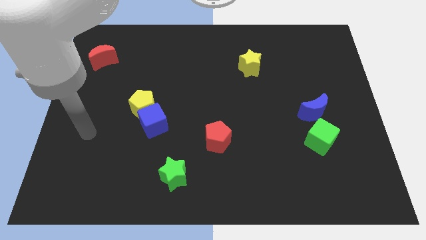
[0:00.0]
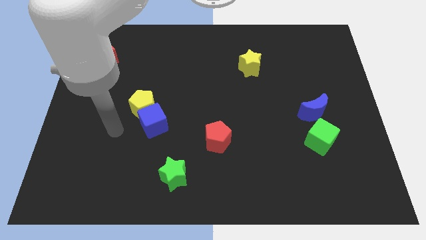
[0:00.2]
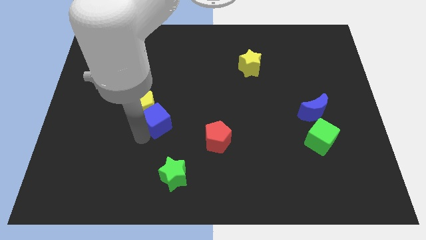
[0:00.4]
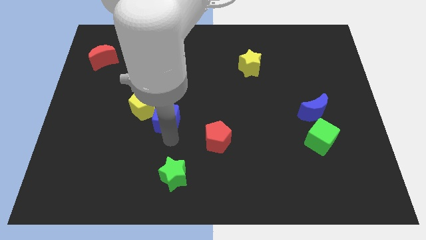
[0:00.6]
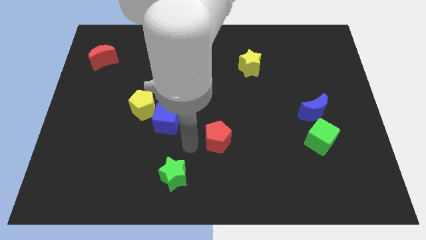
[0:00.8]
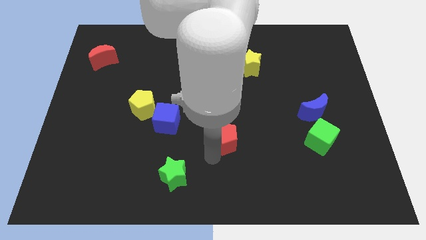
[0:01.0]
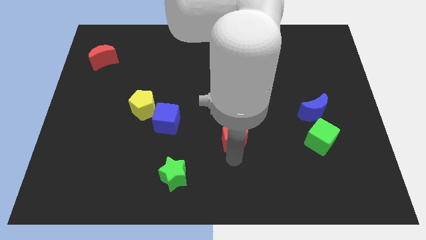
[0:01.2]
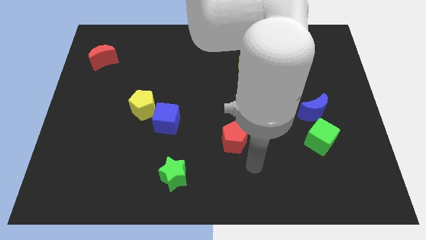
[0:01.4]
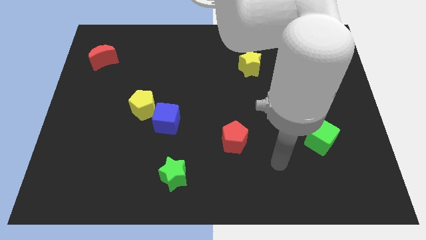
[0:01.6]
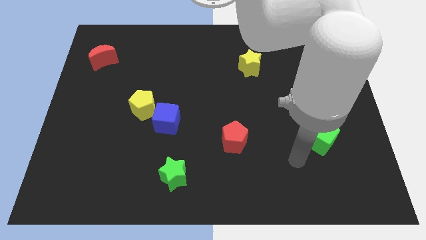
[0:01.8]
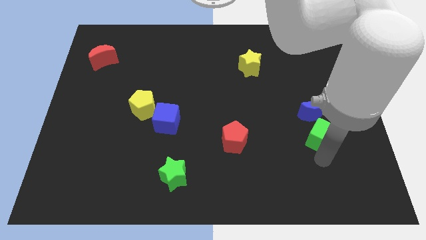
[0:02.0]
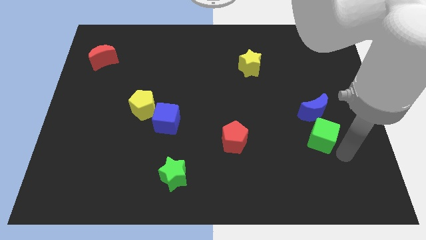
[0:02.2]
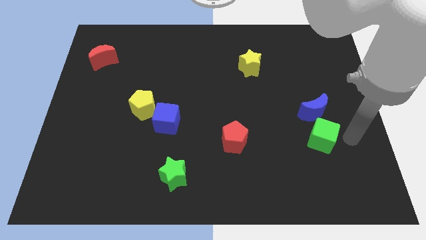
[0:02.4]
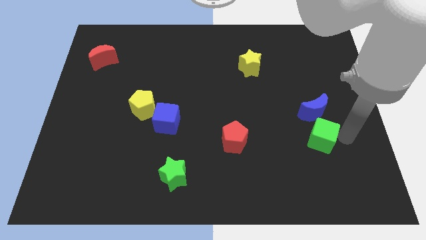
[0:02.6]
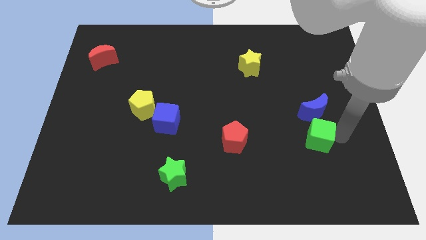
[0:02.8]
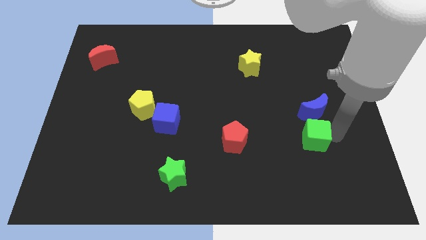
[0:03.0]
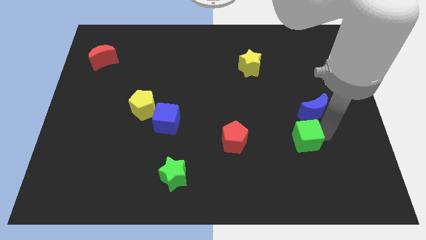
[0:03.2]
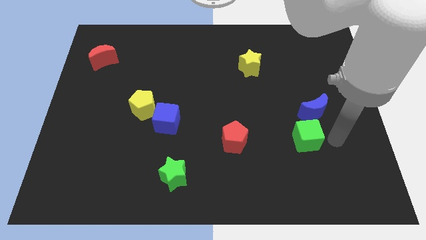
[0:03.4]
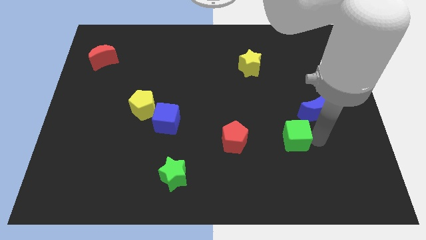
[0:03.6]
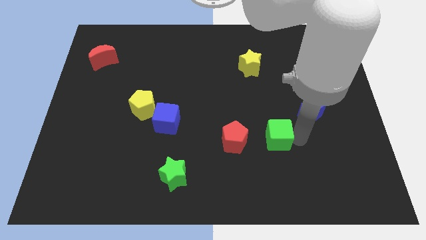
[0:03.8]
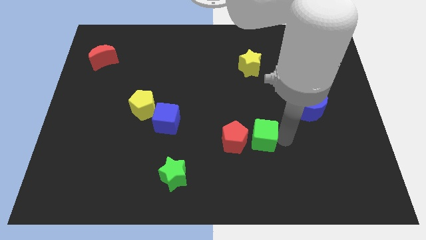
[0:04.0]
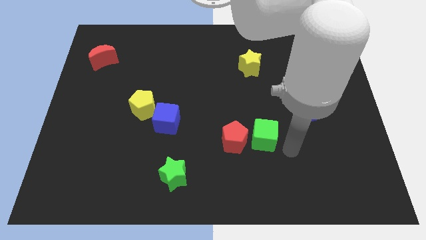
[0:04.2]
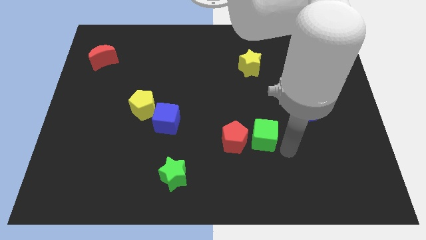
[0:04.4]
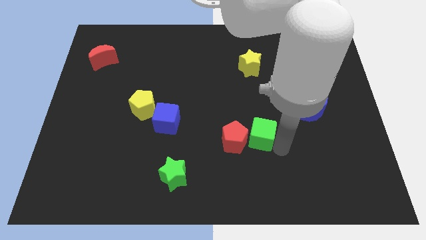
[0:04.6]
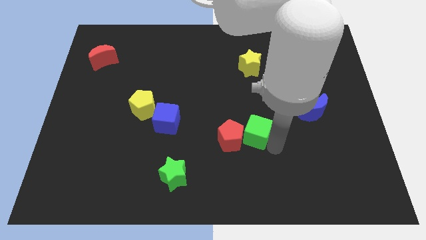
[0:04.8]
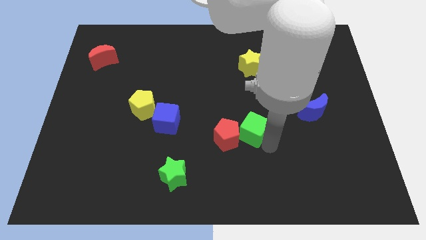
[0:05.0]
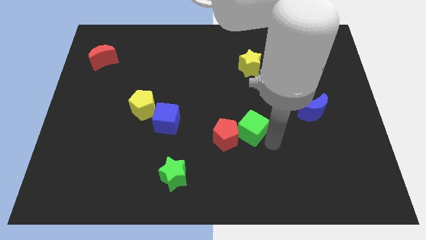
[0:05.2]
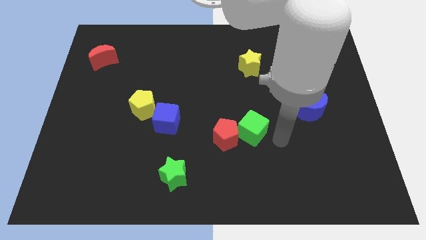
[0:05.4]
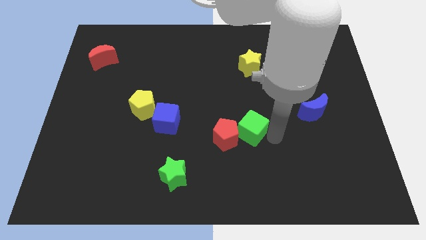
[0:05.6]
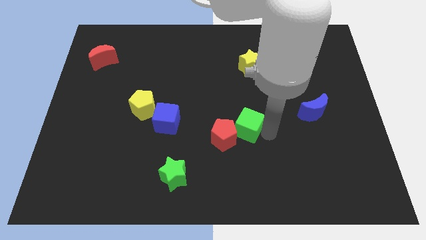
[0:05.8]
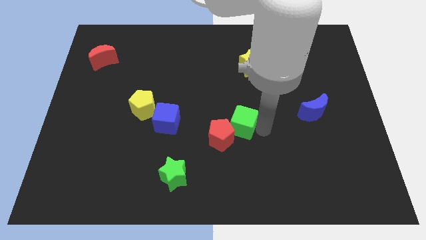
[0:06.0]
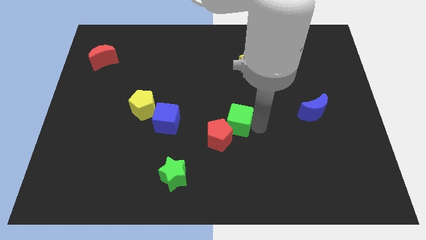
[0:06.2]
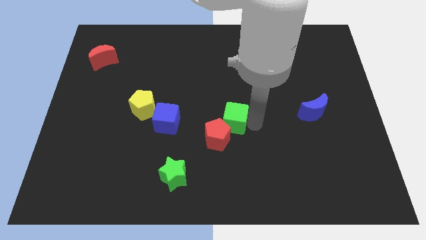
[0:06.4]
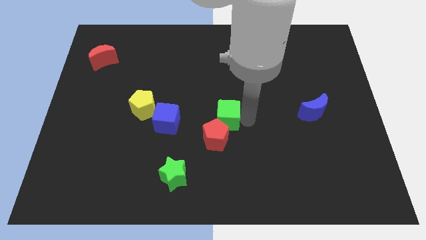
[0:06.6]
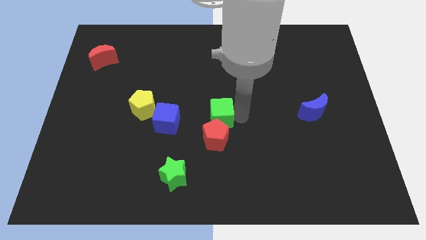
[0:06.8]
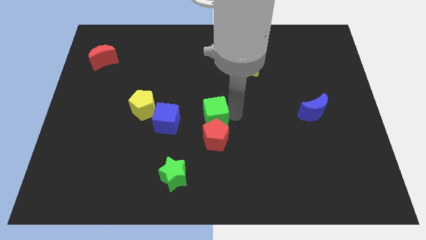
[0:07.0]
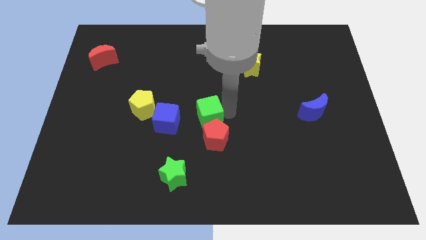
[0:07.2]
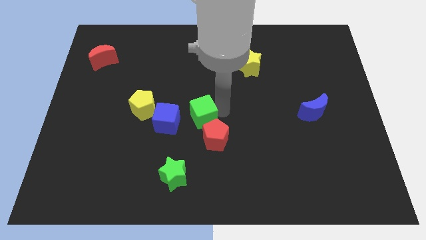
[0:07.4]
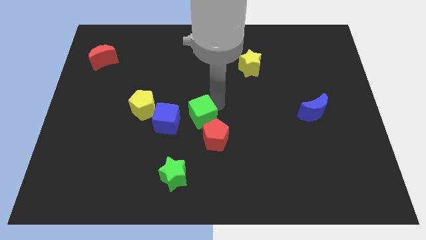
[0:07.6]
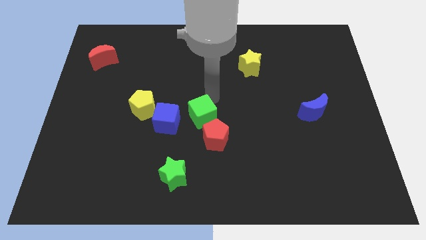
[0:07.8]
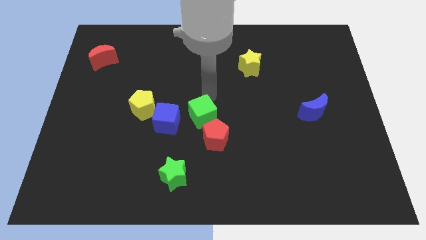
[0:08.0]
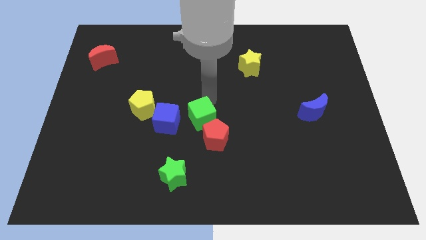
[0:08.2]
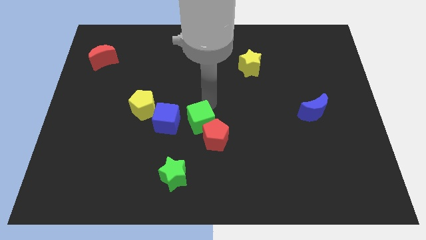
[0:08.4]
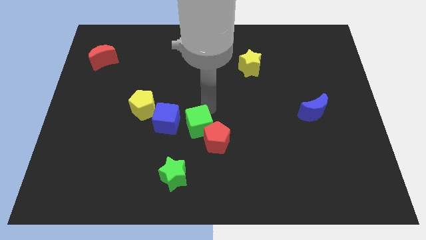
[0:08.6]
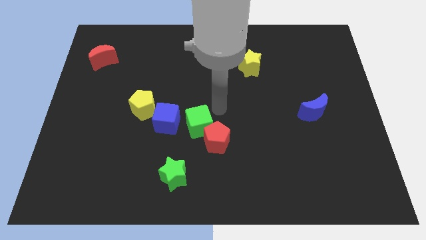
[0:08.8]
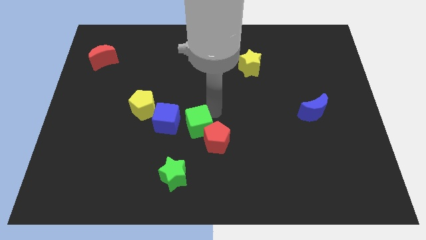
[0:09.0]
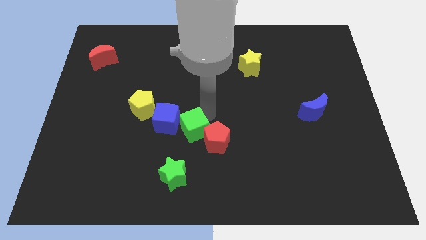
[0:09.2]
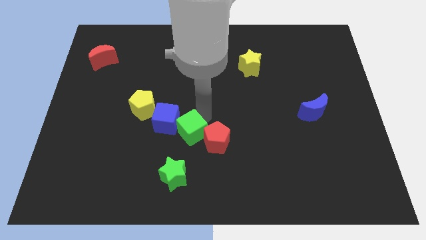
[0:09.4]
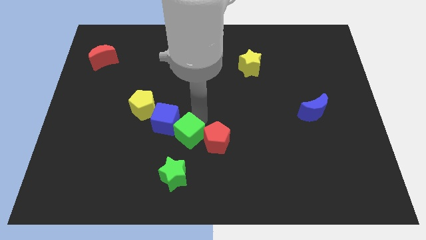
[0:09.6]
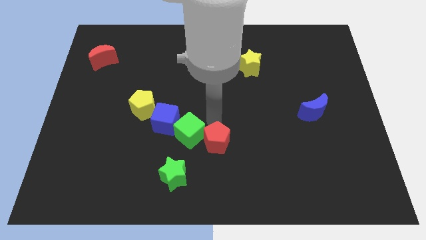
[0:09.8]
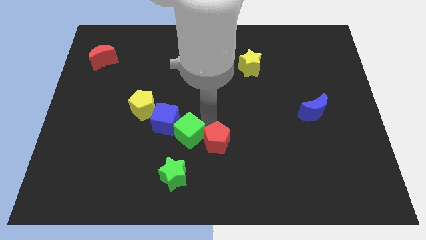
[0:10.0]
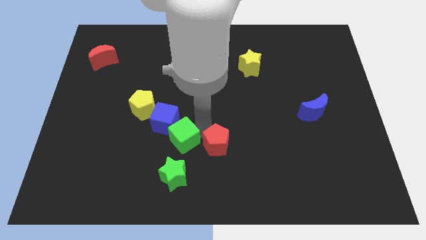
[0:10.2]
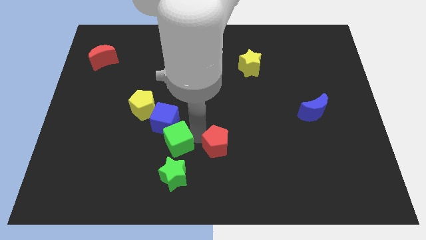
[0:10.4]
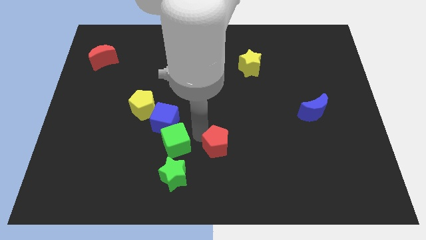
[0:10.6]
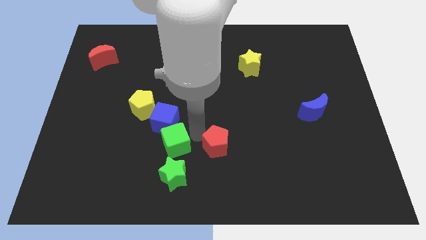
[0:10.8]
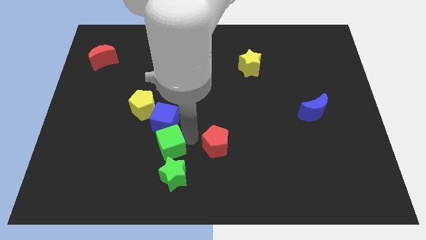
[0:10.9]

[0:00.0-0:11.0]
put the green cube to the top left side of the green star

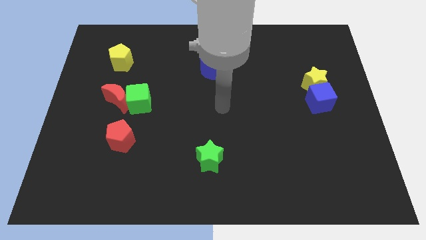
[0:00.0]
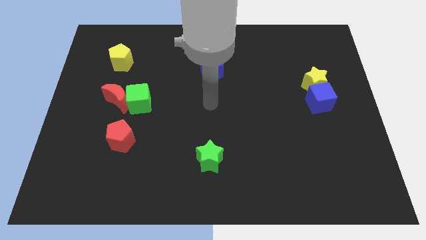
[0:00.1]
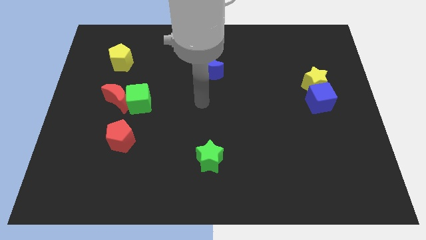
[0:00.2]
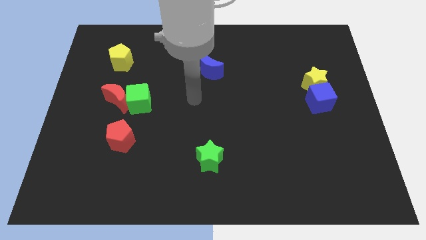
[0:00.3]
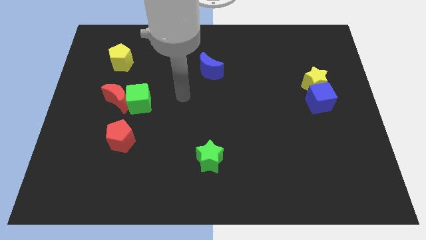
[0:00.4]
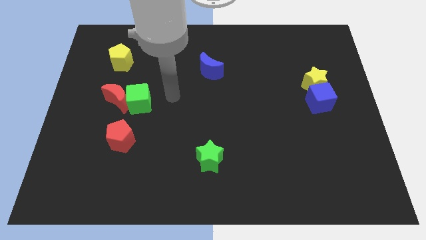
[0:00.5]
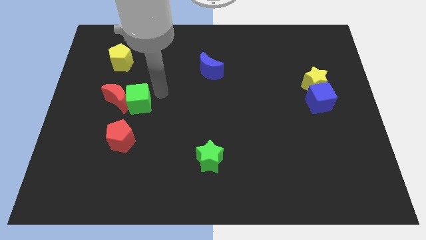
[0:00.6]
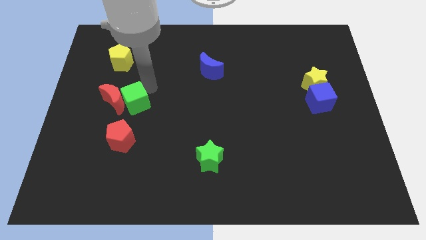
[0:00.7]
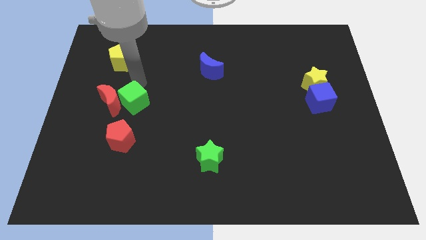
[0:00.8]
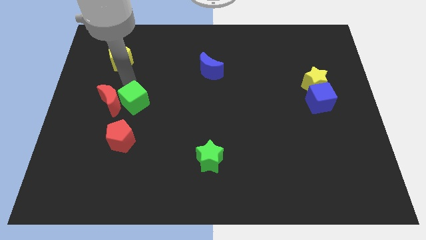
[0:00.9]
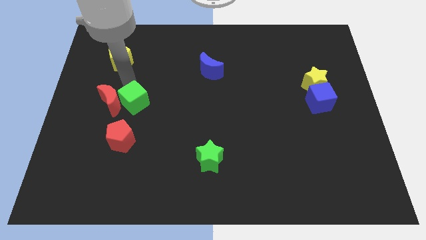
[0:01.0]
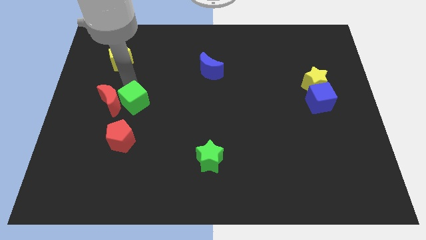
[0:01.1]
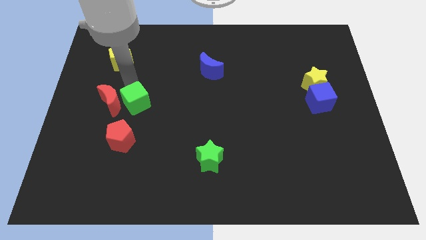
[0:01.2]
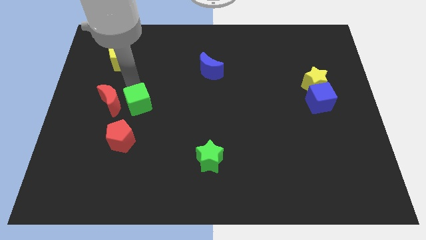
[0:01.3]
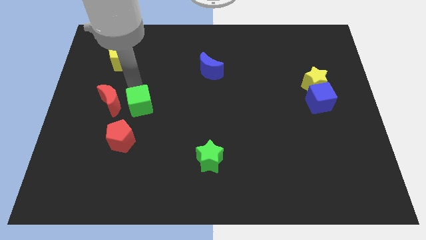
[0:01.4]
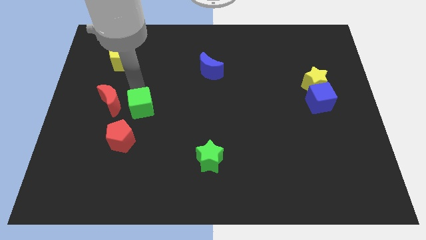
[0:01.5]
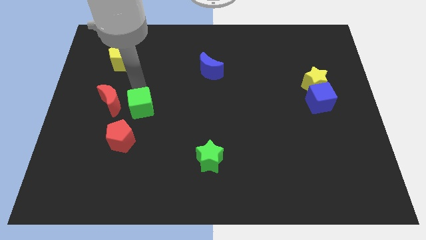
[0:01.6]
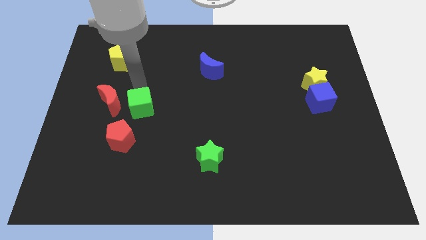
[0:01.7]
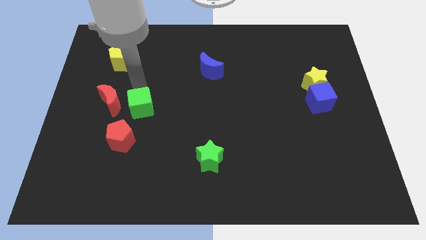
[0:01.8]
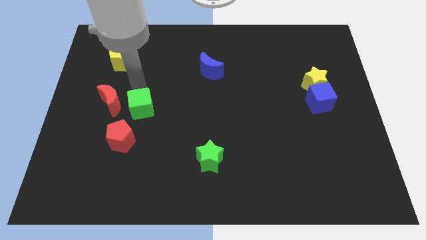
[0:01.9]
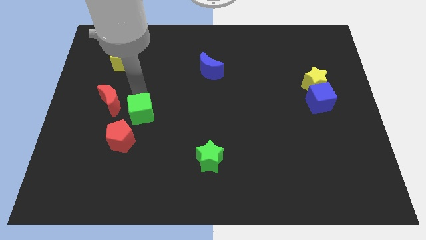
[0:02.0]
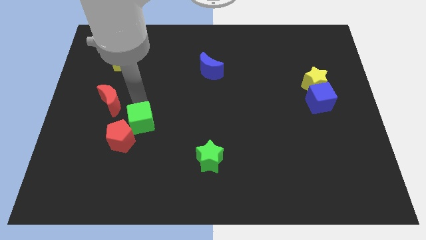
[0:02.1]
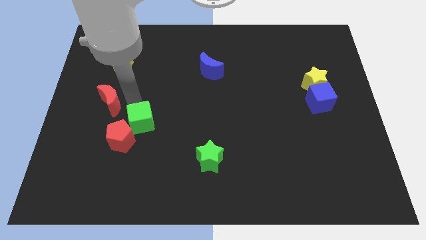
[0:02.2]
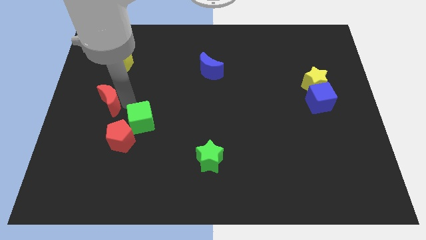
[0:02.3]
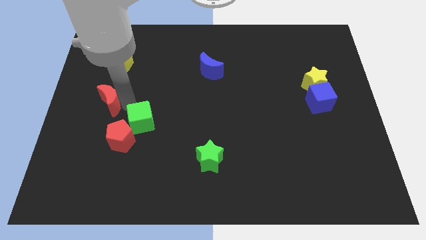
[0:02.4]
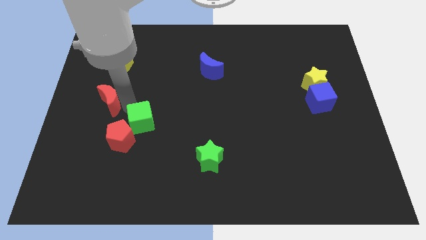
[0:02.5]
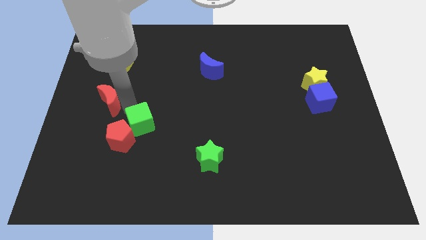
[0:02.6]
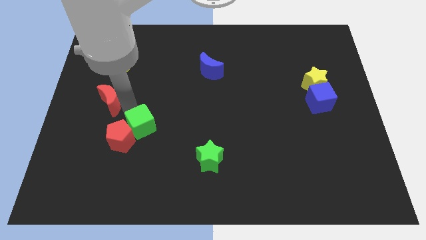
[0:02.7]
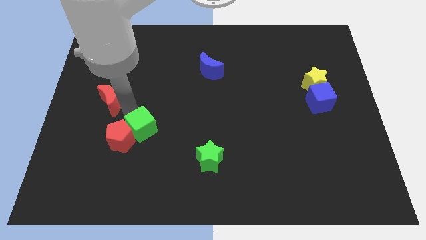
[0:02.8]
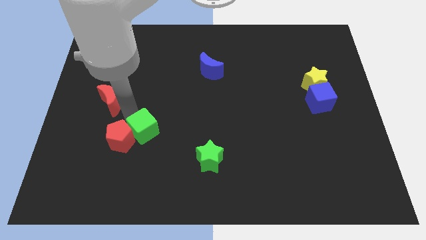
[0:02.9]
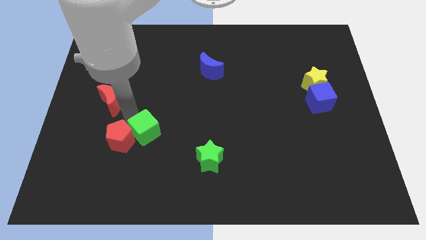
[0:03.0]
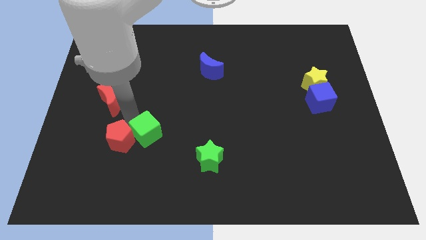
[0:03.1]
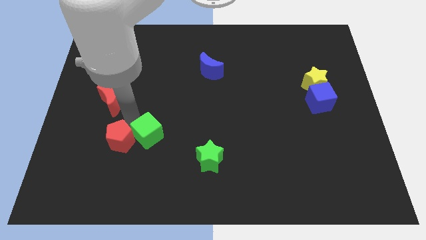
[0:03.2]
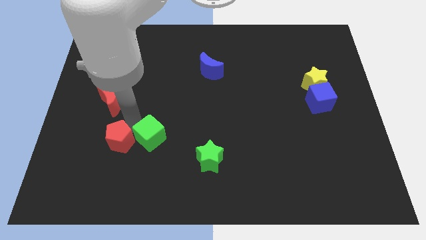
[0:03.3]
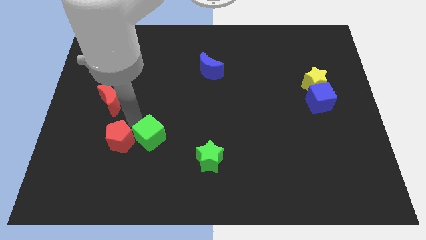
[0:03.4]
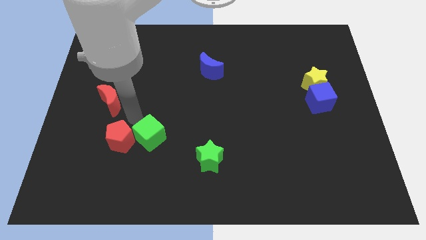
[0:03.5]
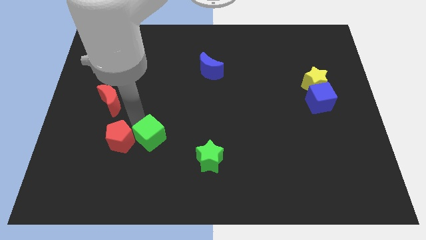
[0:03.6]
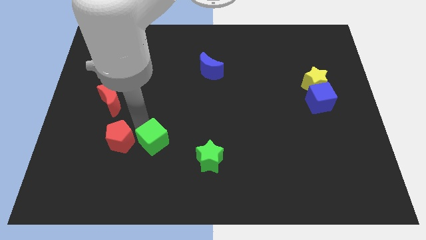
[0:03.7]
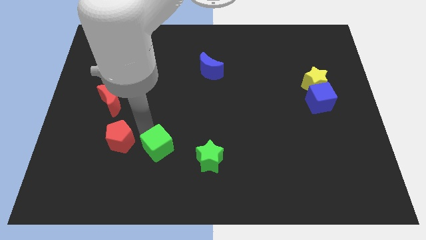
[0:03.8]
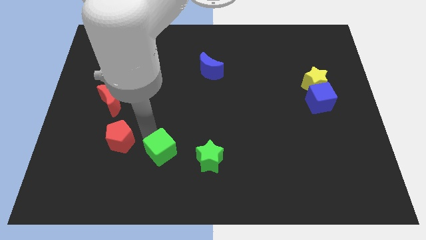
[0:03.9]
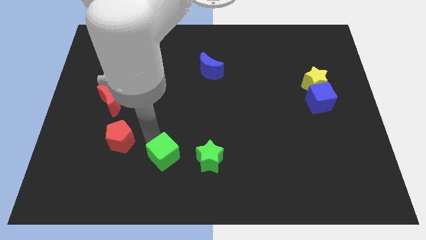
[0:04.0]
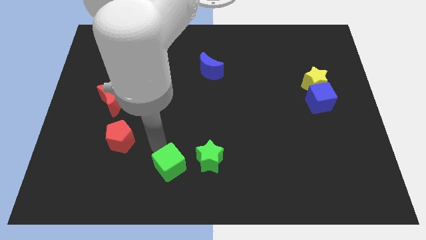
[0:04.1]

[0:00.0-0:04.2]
move the green cube diagonally down and to the left of the green star
